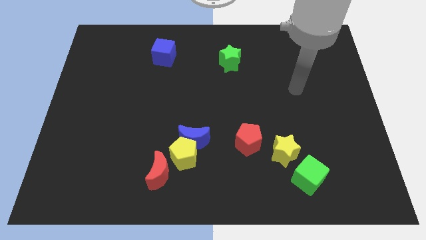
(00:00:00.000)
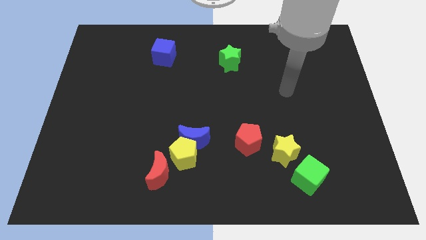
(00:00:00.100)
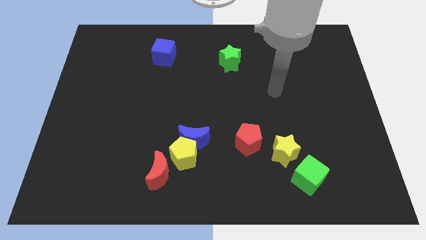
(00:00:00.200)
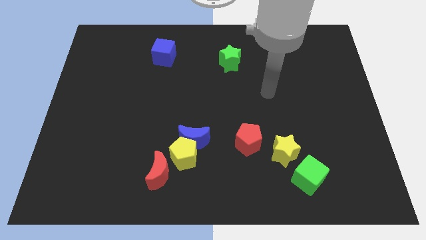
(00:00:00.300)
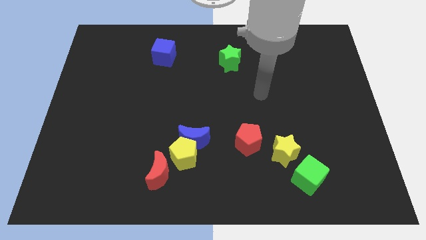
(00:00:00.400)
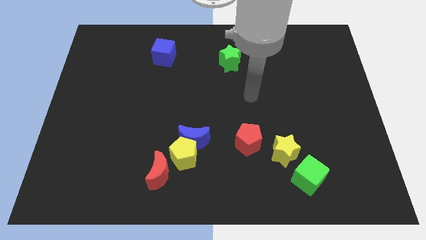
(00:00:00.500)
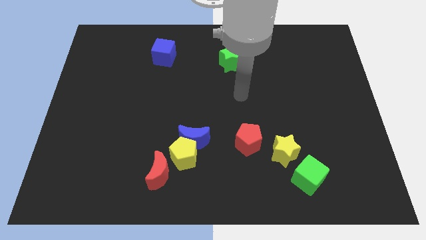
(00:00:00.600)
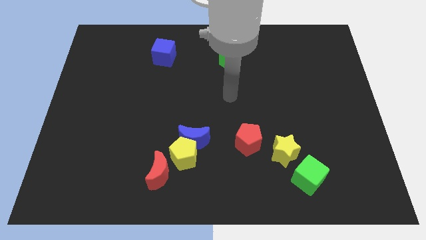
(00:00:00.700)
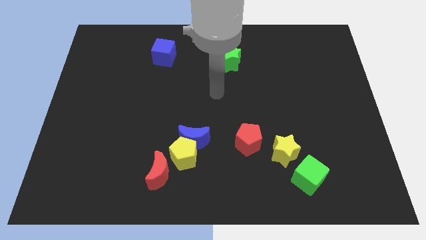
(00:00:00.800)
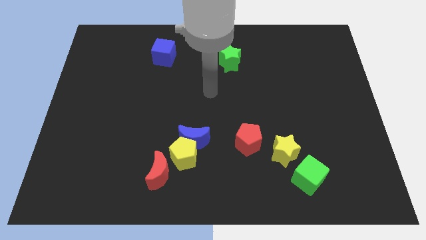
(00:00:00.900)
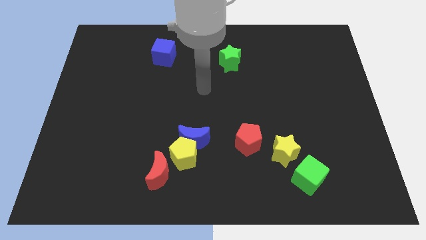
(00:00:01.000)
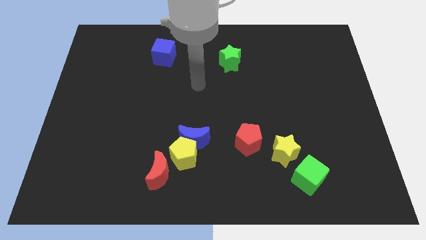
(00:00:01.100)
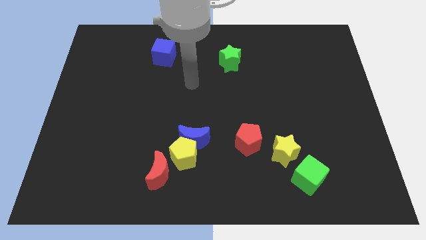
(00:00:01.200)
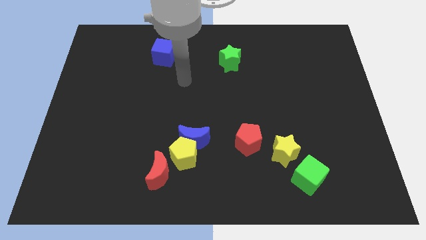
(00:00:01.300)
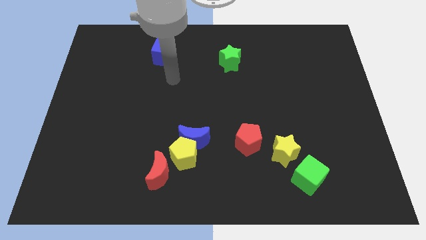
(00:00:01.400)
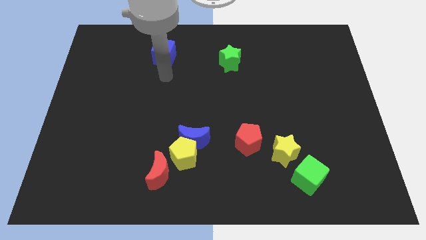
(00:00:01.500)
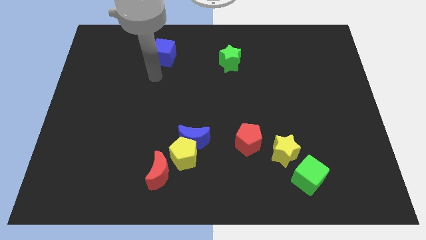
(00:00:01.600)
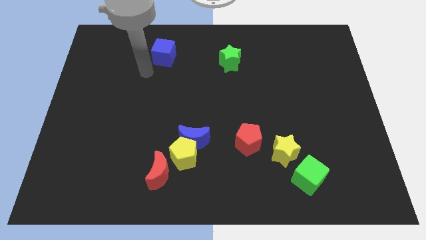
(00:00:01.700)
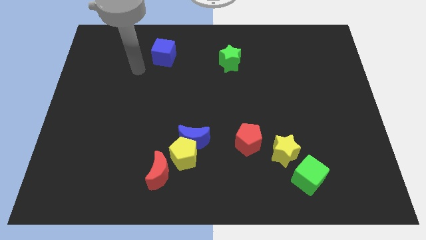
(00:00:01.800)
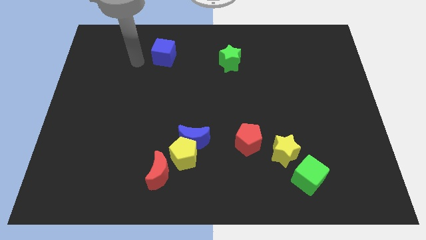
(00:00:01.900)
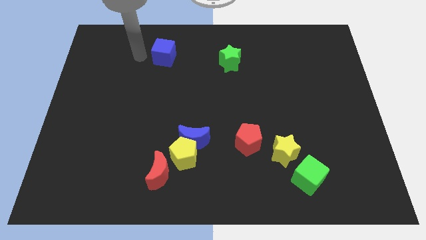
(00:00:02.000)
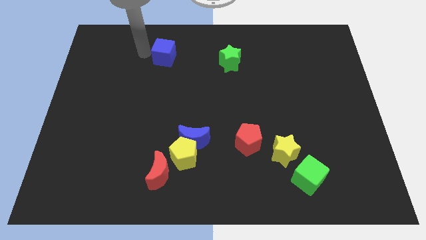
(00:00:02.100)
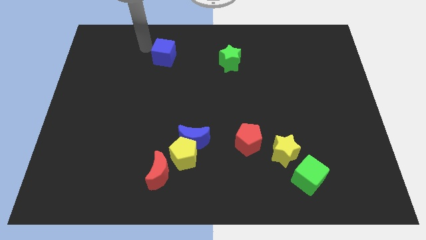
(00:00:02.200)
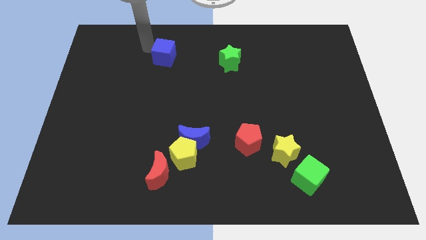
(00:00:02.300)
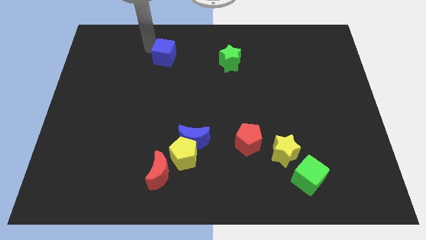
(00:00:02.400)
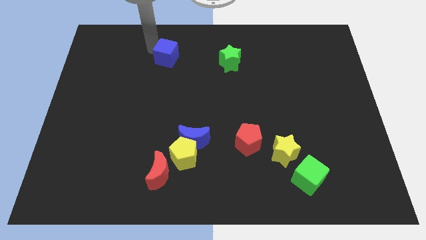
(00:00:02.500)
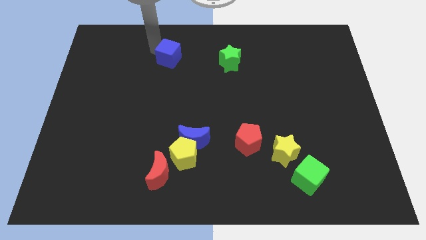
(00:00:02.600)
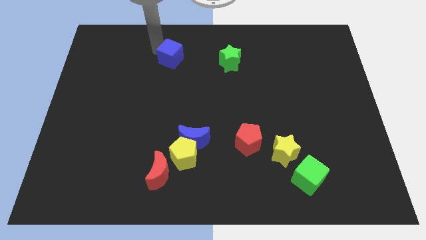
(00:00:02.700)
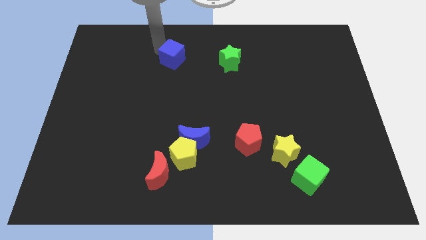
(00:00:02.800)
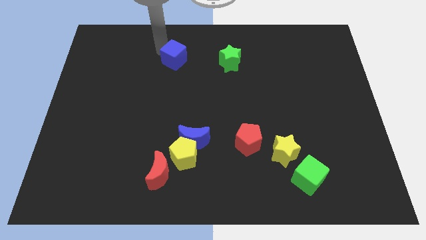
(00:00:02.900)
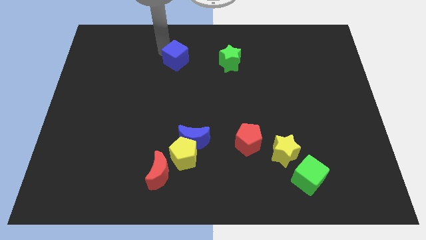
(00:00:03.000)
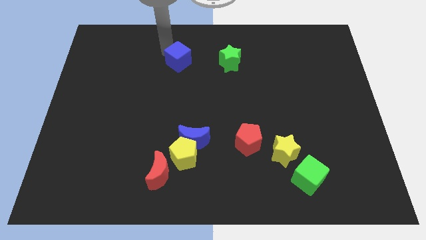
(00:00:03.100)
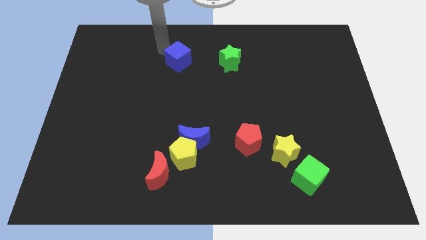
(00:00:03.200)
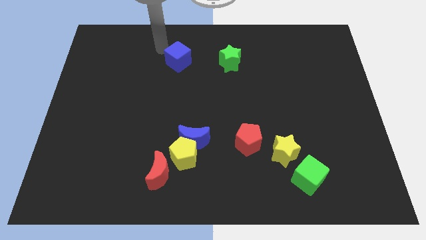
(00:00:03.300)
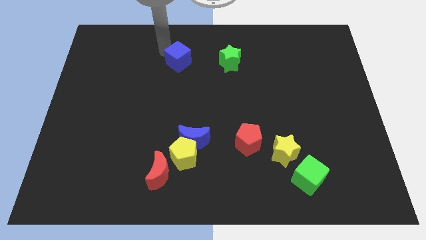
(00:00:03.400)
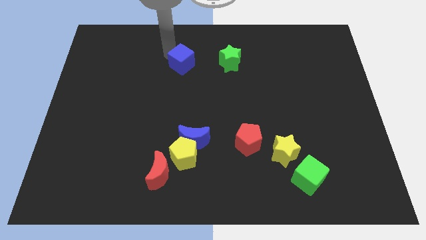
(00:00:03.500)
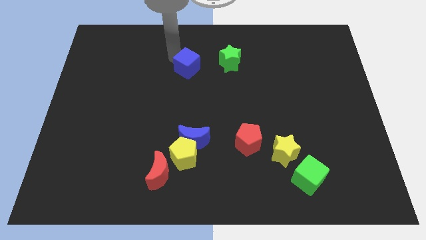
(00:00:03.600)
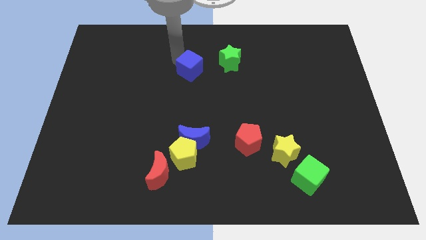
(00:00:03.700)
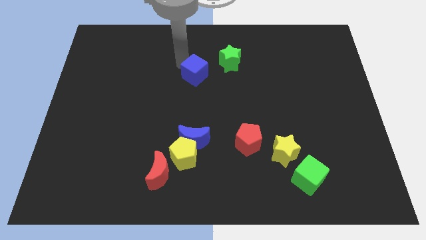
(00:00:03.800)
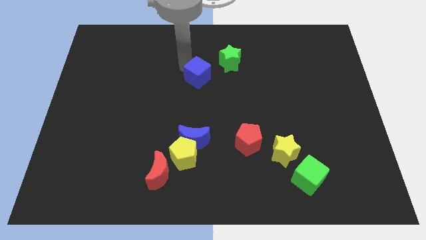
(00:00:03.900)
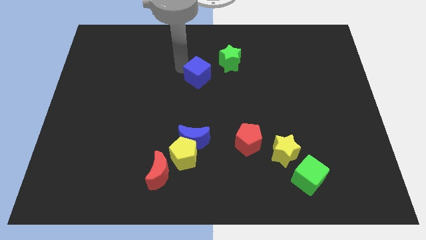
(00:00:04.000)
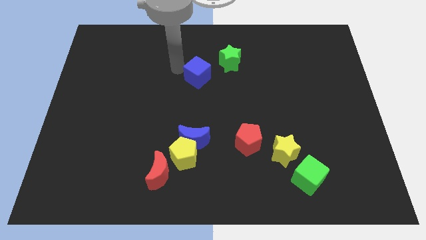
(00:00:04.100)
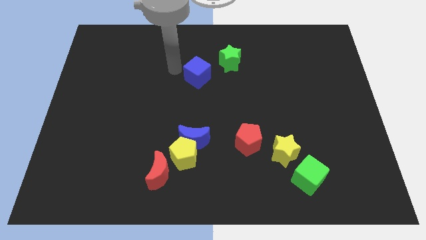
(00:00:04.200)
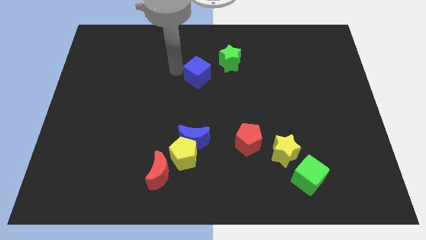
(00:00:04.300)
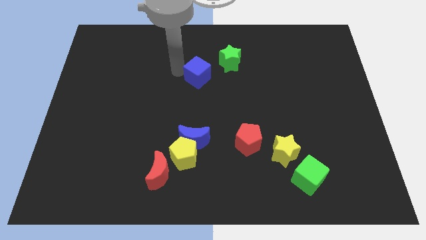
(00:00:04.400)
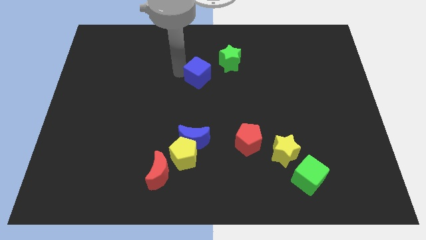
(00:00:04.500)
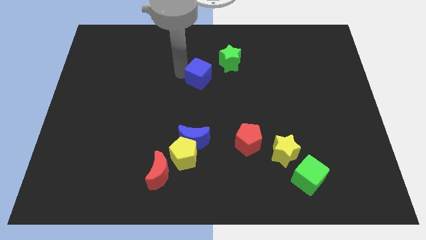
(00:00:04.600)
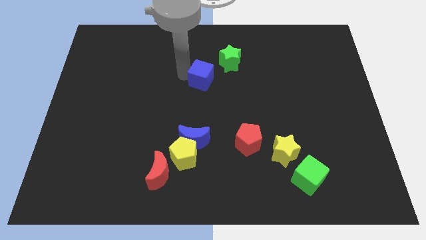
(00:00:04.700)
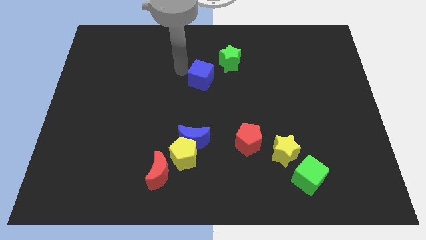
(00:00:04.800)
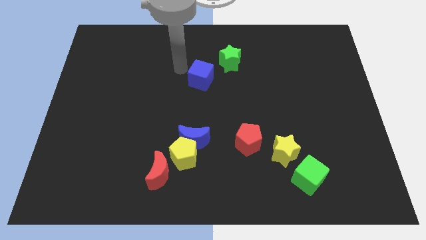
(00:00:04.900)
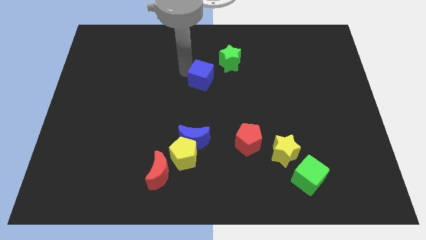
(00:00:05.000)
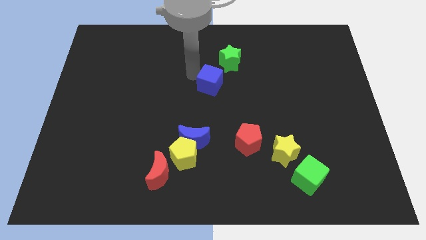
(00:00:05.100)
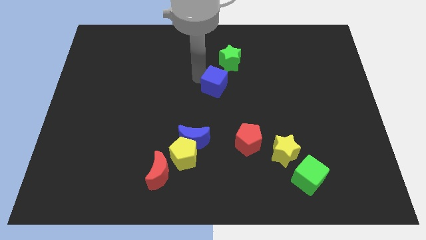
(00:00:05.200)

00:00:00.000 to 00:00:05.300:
move the blue cube to the bottom side of the green star

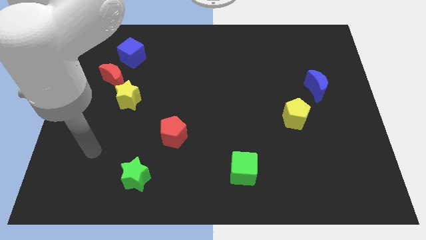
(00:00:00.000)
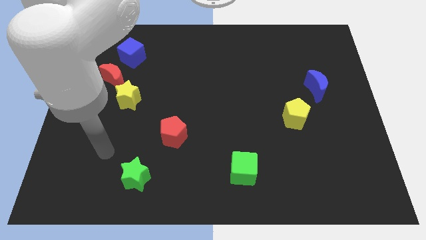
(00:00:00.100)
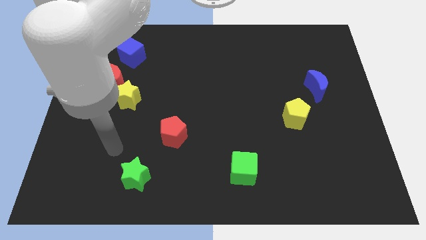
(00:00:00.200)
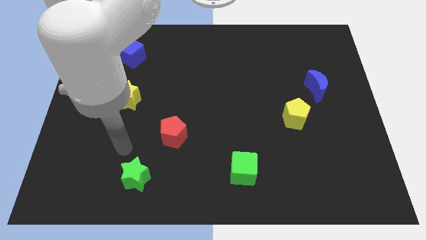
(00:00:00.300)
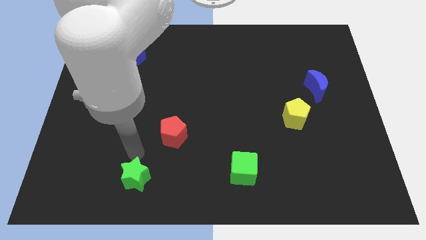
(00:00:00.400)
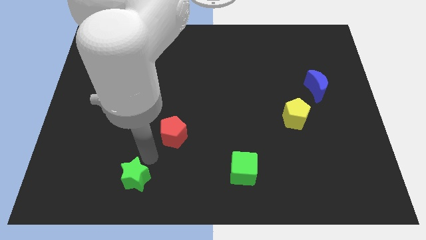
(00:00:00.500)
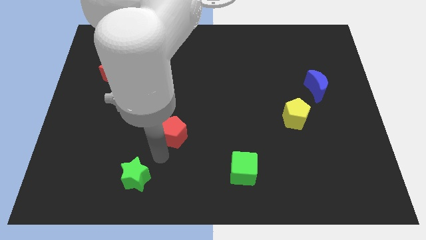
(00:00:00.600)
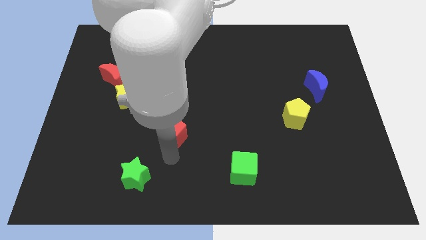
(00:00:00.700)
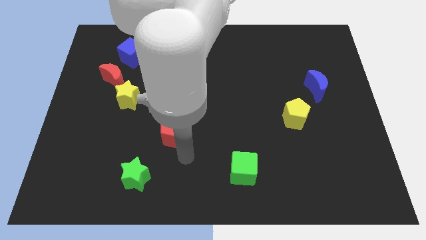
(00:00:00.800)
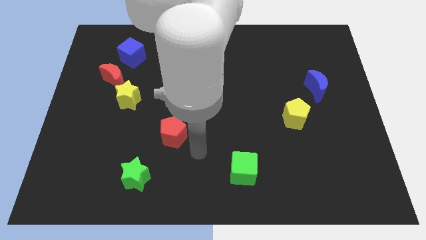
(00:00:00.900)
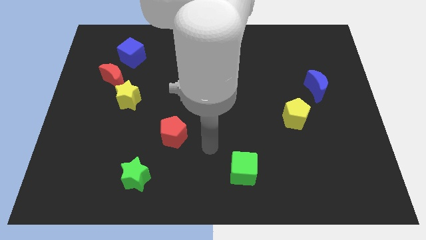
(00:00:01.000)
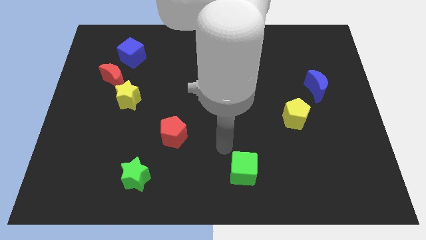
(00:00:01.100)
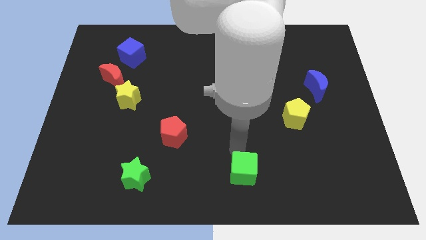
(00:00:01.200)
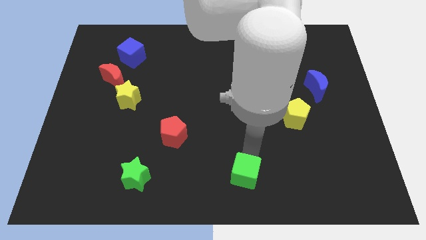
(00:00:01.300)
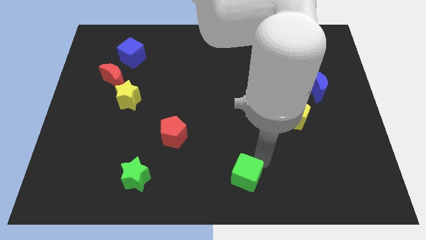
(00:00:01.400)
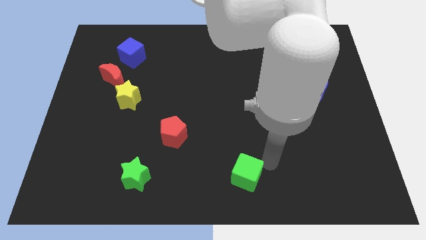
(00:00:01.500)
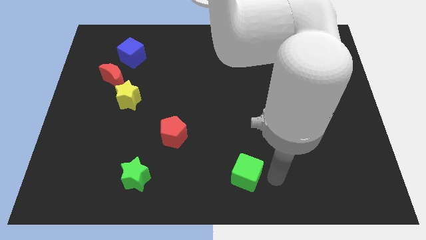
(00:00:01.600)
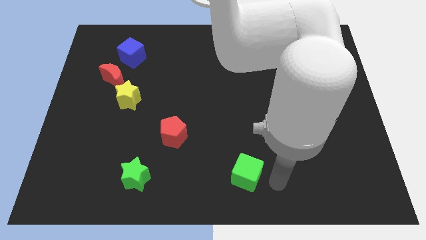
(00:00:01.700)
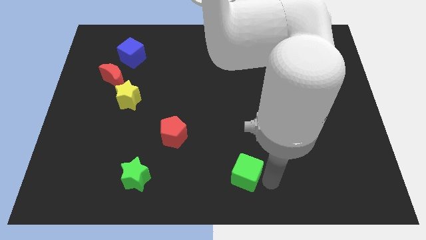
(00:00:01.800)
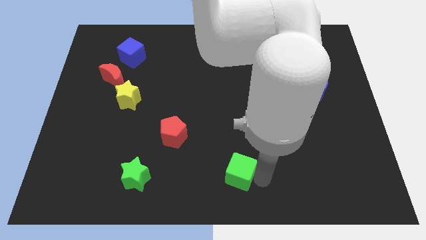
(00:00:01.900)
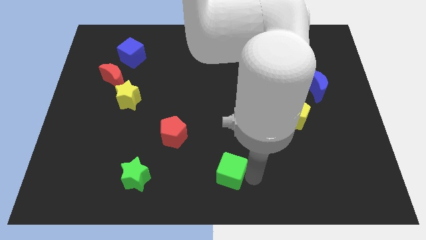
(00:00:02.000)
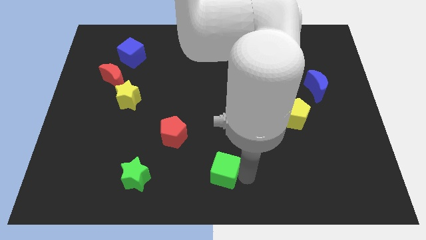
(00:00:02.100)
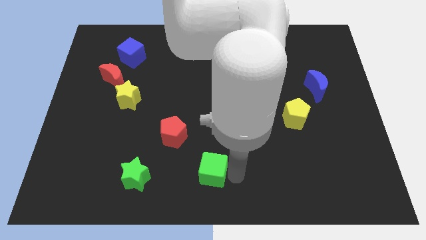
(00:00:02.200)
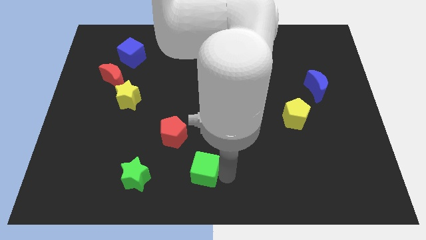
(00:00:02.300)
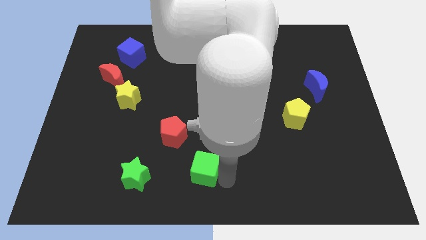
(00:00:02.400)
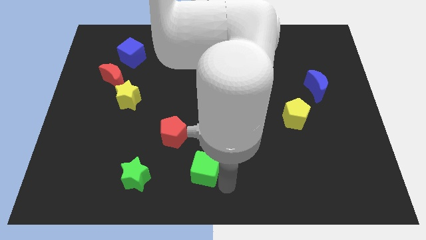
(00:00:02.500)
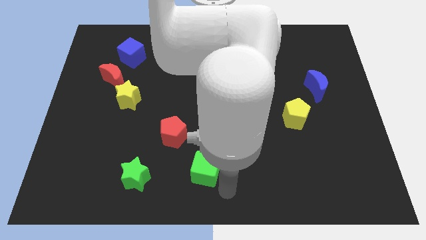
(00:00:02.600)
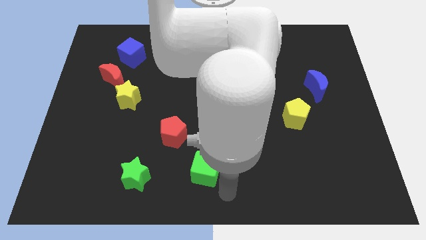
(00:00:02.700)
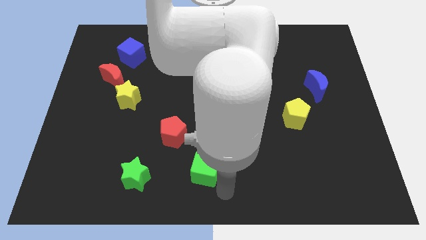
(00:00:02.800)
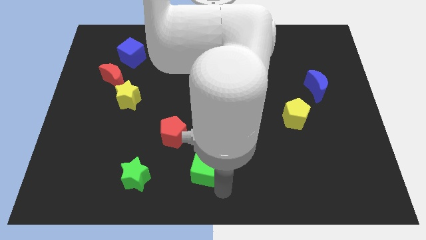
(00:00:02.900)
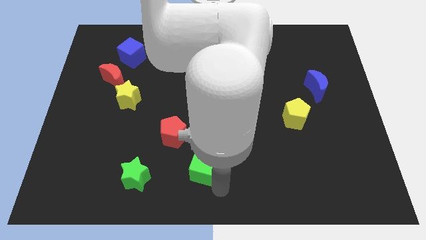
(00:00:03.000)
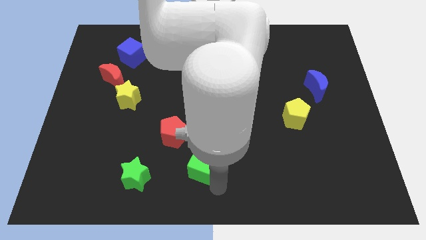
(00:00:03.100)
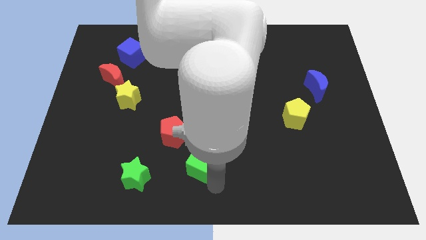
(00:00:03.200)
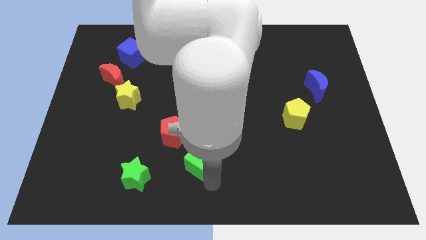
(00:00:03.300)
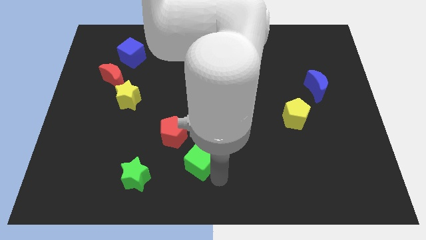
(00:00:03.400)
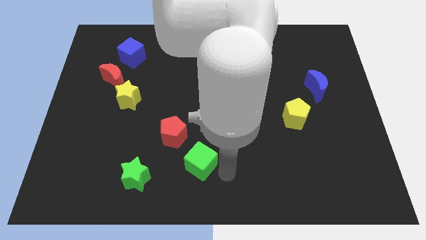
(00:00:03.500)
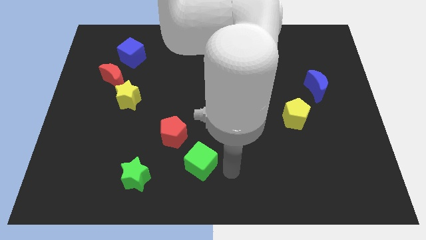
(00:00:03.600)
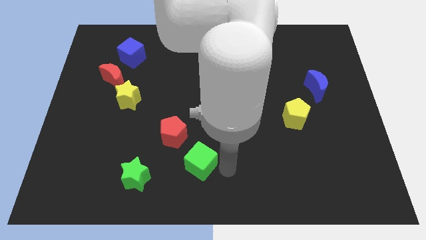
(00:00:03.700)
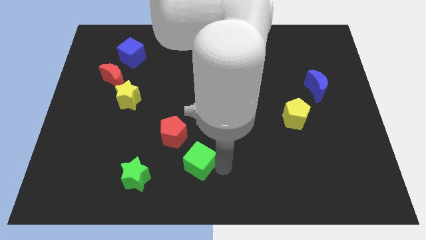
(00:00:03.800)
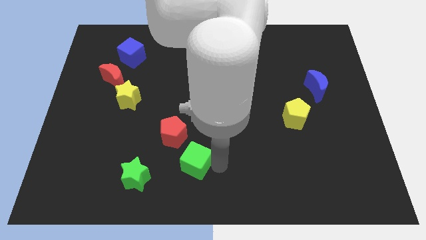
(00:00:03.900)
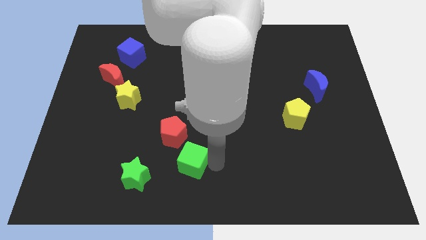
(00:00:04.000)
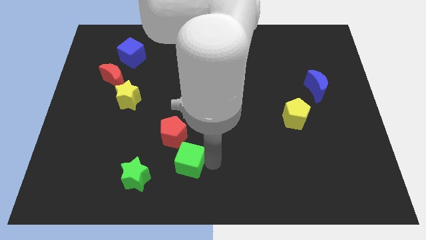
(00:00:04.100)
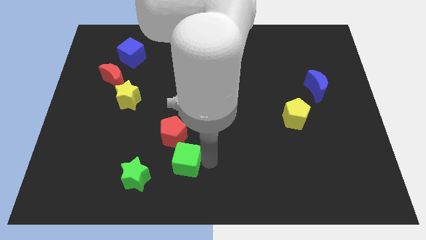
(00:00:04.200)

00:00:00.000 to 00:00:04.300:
put the green cube to the top right of the green star
